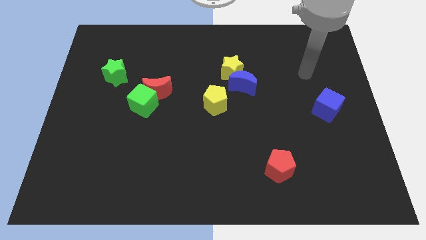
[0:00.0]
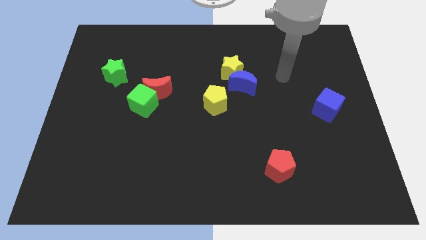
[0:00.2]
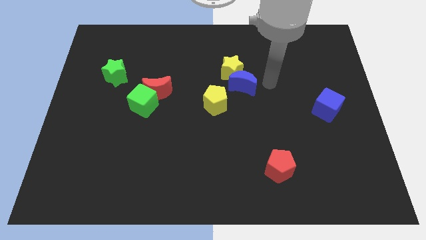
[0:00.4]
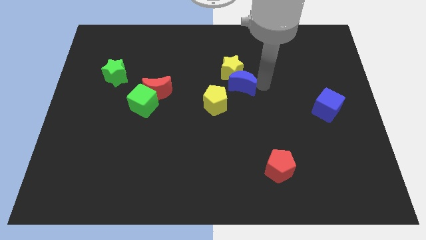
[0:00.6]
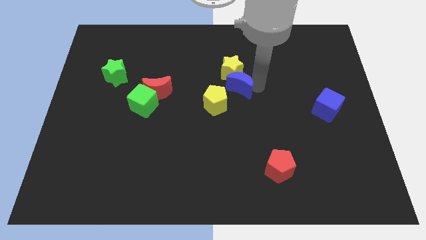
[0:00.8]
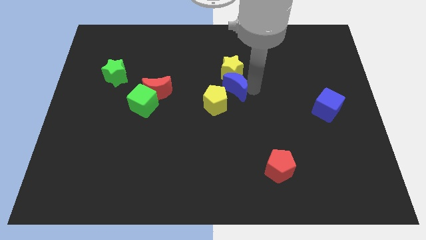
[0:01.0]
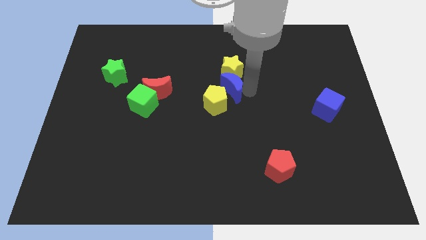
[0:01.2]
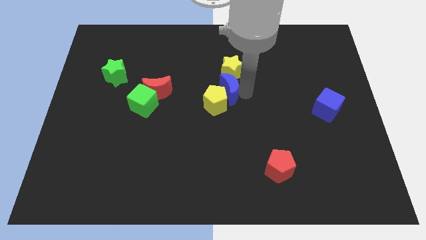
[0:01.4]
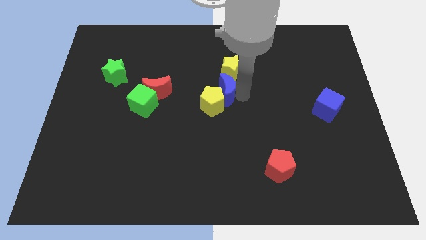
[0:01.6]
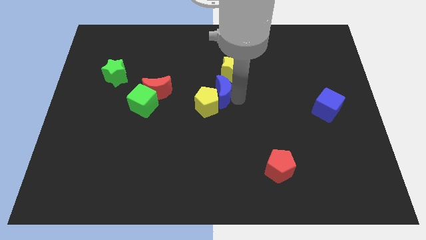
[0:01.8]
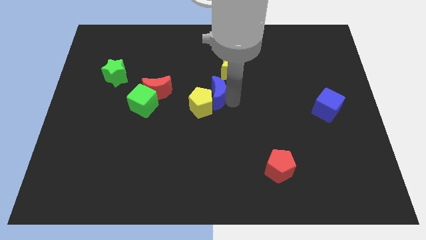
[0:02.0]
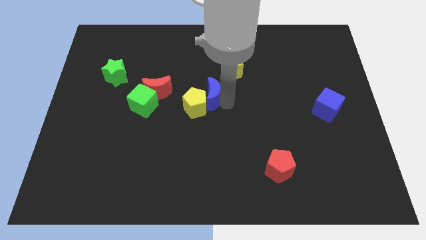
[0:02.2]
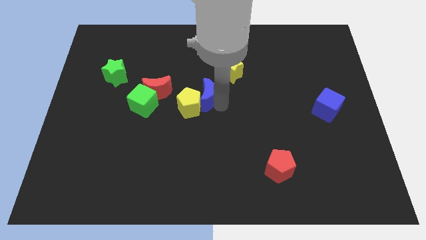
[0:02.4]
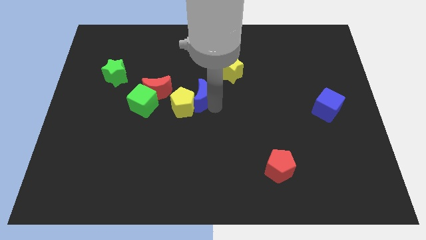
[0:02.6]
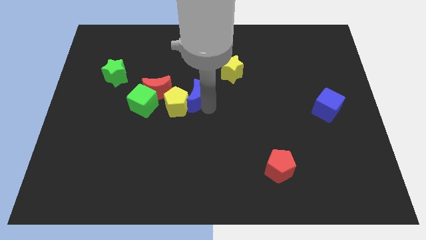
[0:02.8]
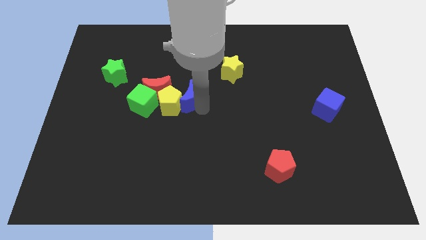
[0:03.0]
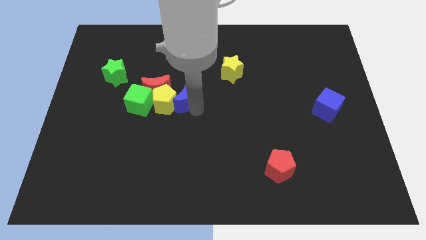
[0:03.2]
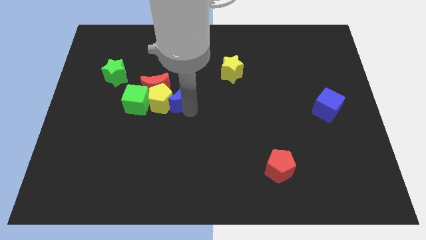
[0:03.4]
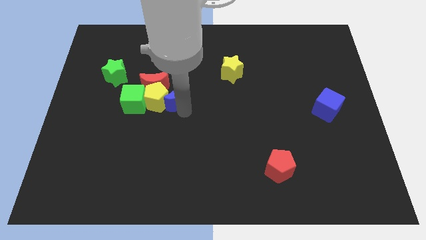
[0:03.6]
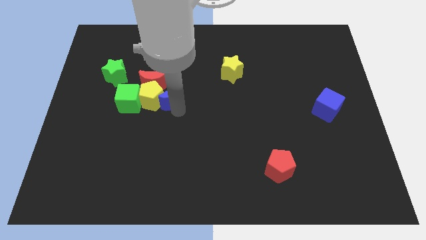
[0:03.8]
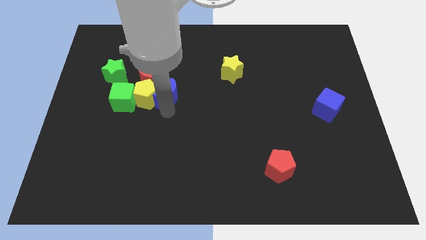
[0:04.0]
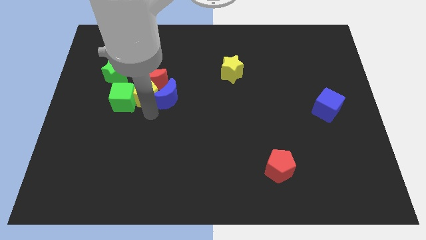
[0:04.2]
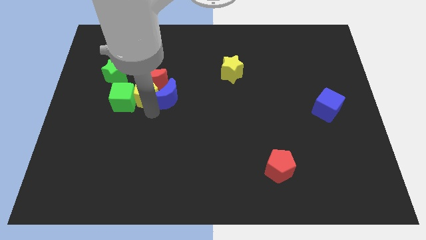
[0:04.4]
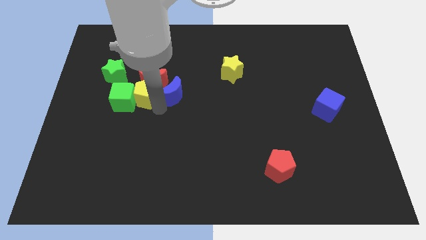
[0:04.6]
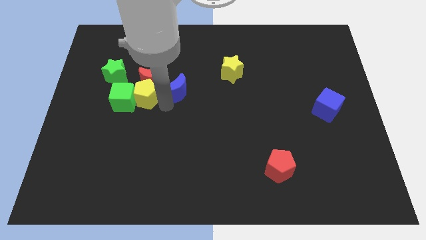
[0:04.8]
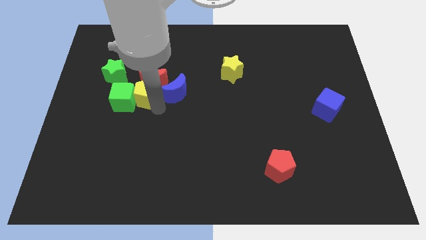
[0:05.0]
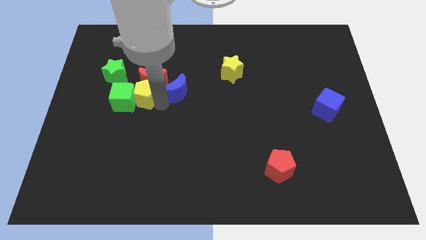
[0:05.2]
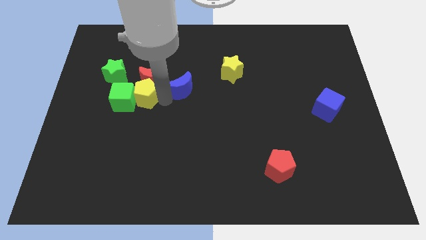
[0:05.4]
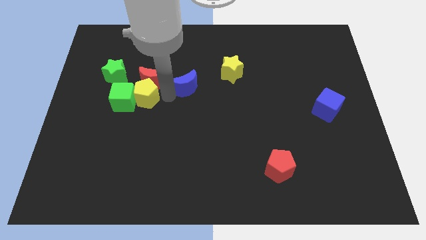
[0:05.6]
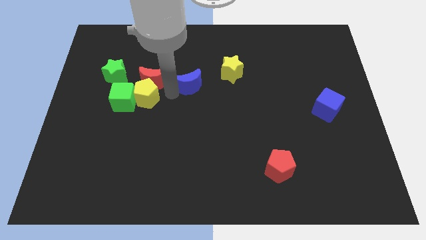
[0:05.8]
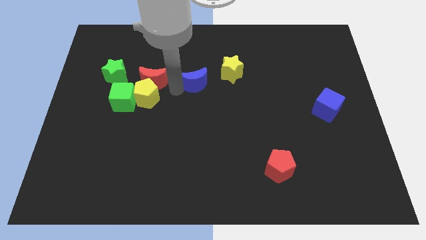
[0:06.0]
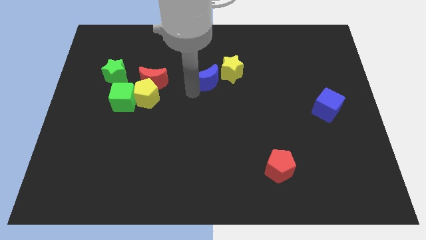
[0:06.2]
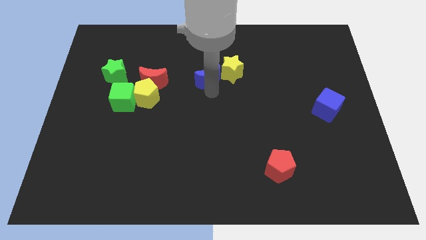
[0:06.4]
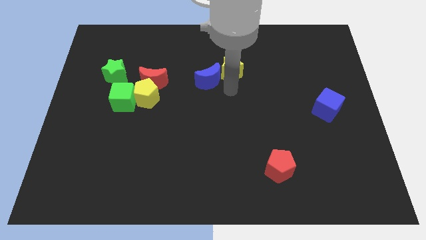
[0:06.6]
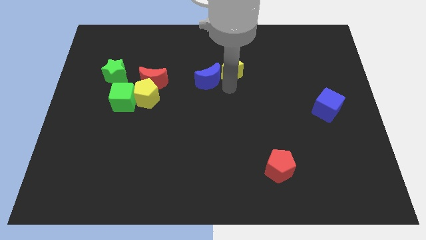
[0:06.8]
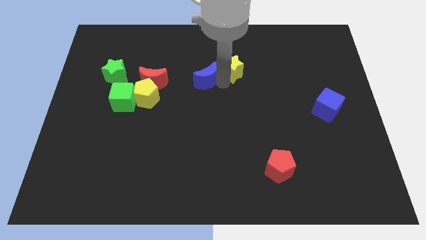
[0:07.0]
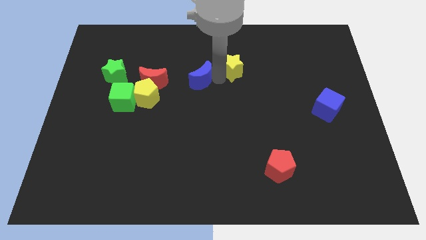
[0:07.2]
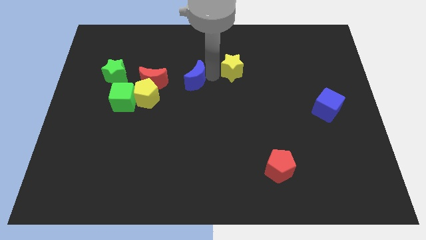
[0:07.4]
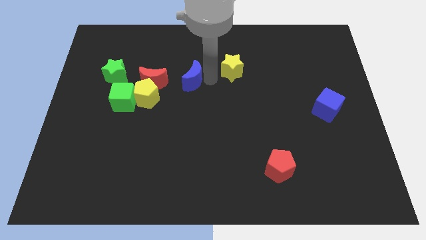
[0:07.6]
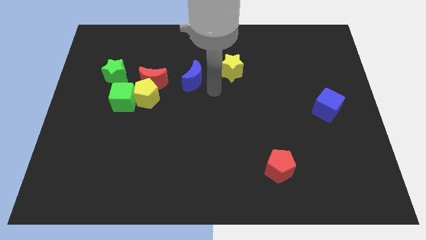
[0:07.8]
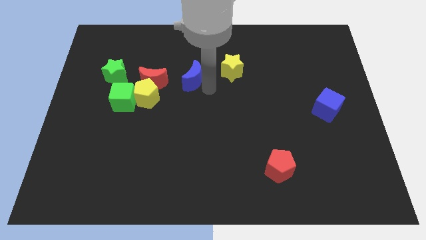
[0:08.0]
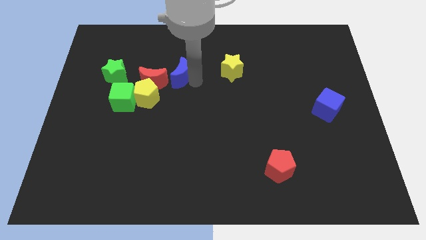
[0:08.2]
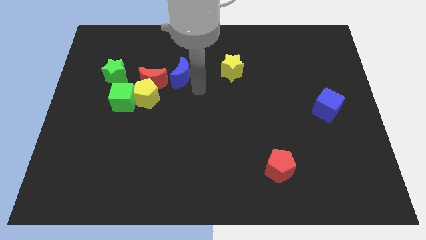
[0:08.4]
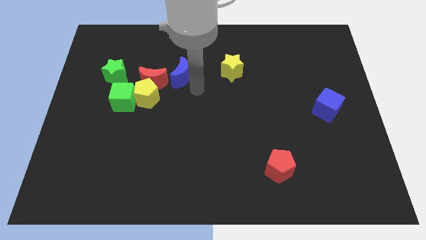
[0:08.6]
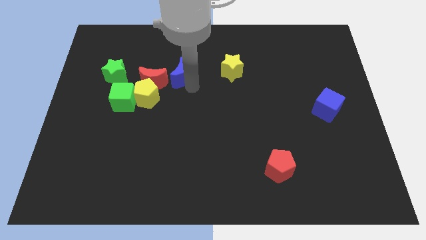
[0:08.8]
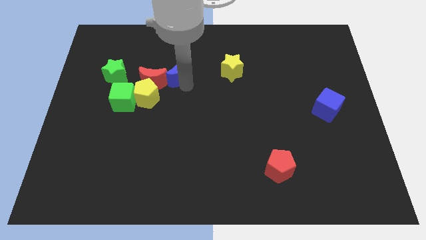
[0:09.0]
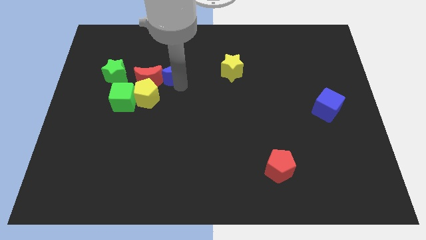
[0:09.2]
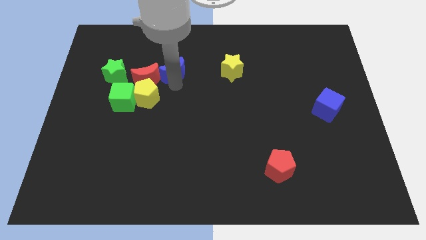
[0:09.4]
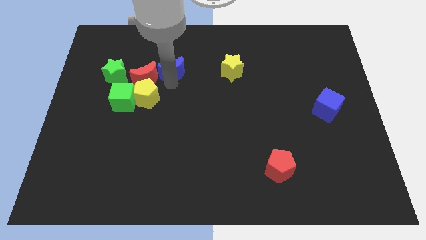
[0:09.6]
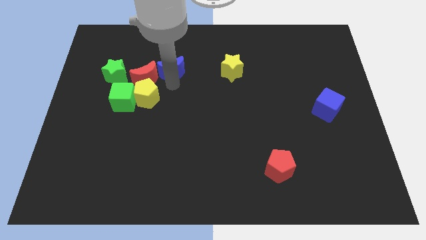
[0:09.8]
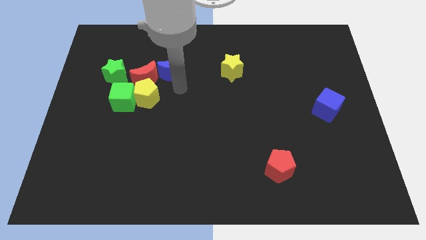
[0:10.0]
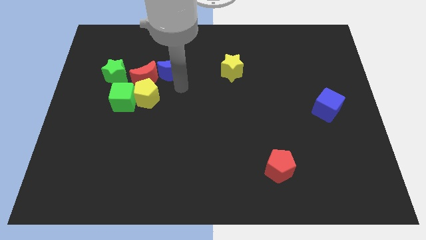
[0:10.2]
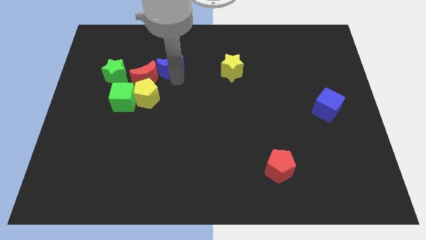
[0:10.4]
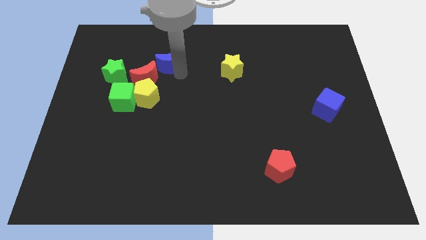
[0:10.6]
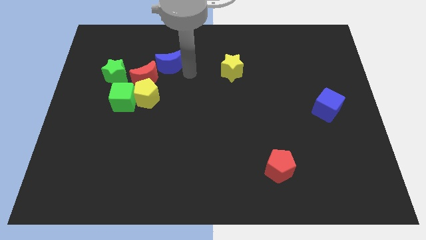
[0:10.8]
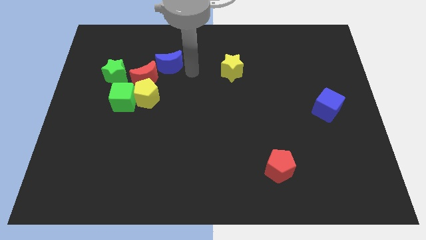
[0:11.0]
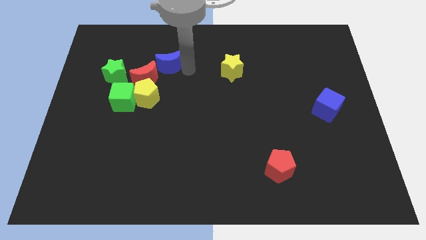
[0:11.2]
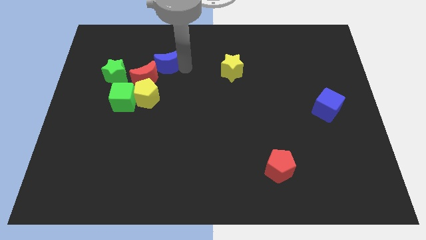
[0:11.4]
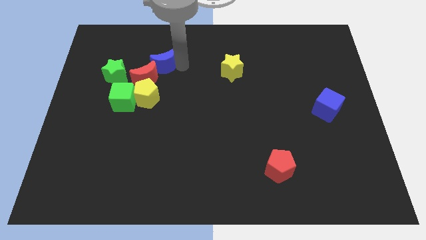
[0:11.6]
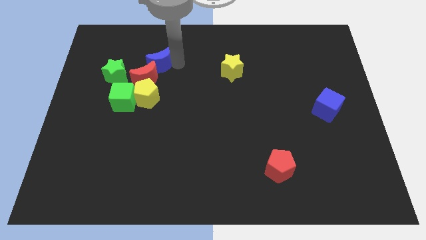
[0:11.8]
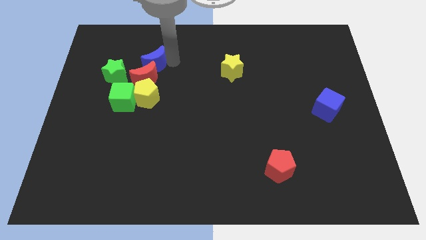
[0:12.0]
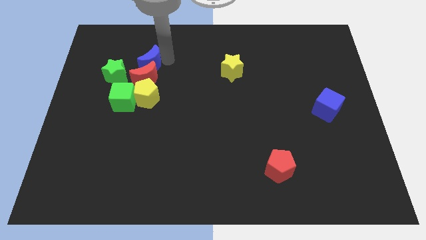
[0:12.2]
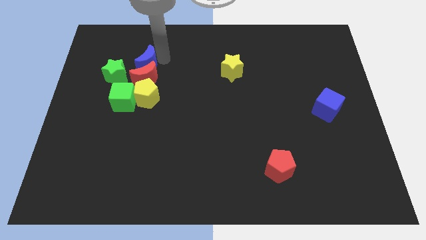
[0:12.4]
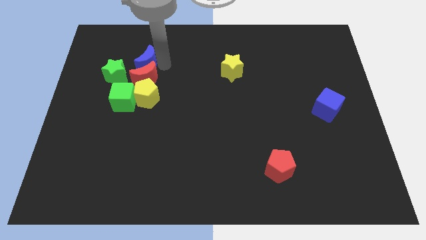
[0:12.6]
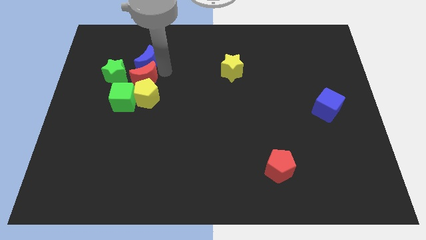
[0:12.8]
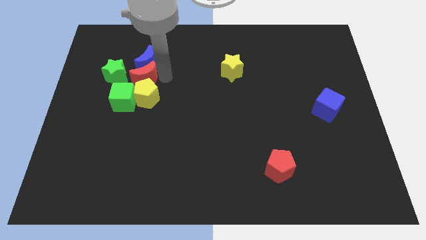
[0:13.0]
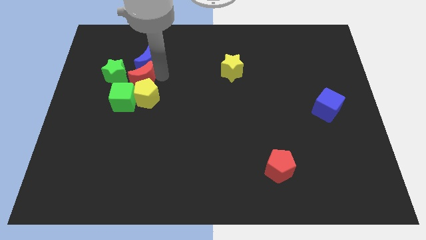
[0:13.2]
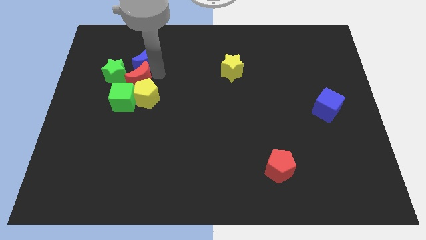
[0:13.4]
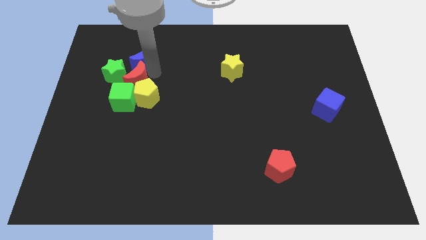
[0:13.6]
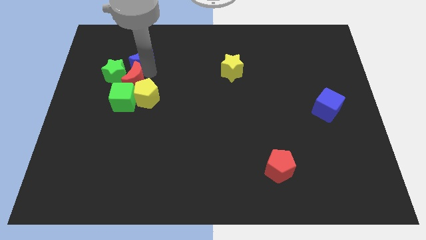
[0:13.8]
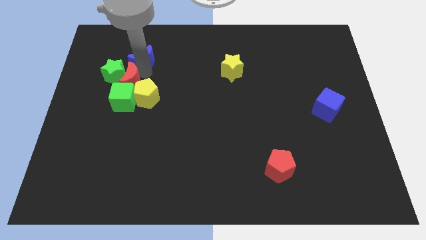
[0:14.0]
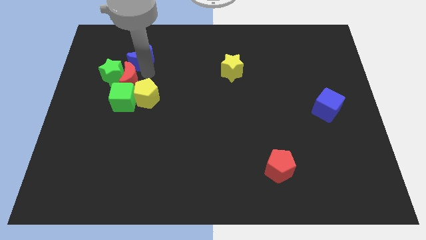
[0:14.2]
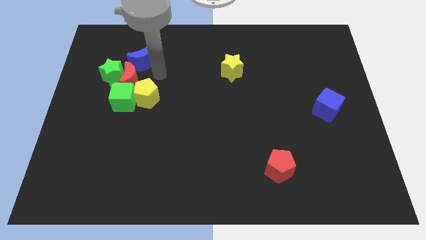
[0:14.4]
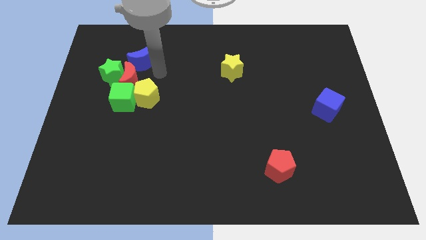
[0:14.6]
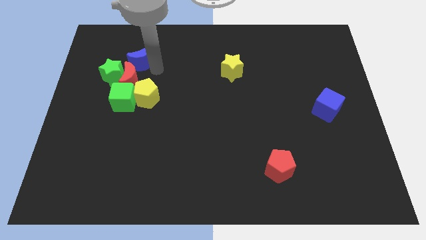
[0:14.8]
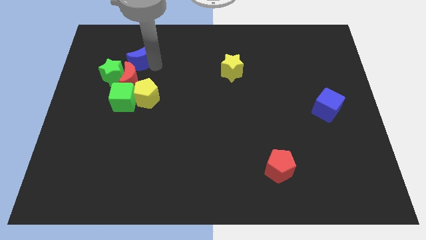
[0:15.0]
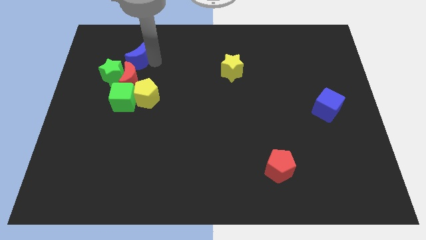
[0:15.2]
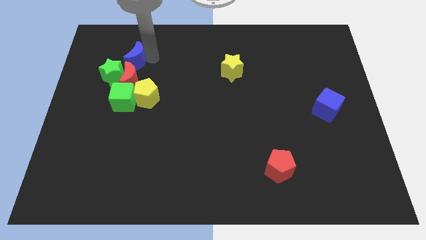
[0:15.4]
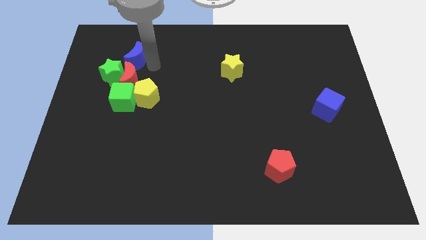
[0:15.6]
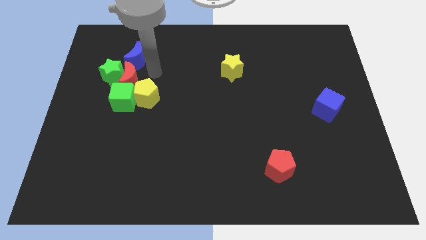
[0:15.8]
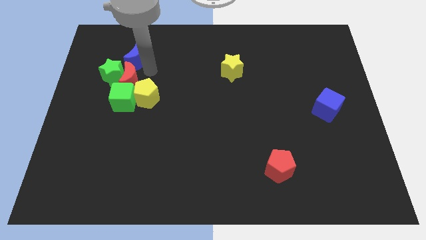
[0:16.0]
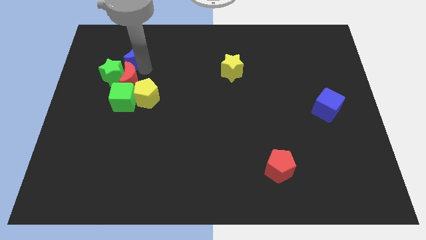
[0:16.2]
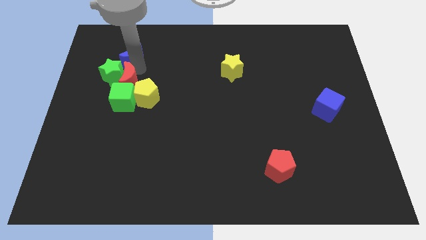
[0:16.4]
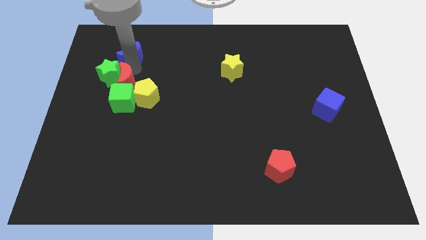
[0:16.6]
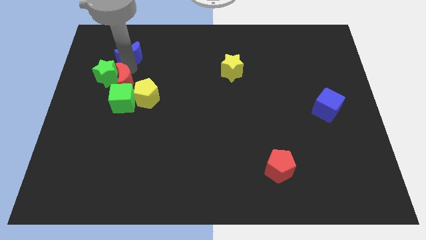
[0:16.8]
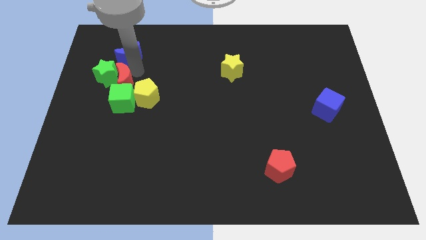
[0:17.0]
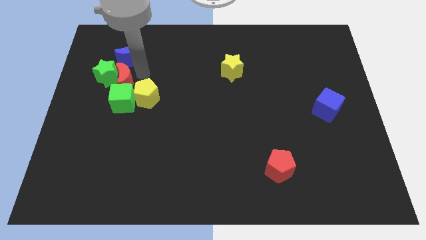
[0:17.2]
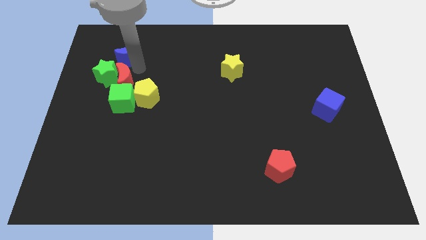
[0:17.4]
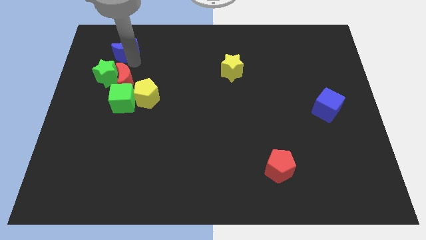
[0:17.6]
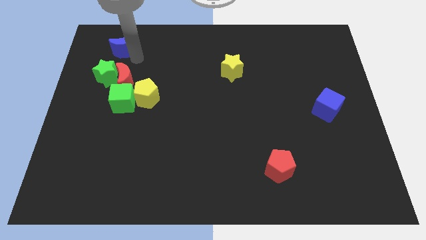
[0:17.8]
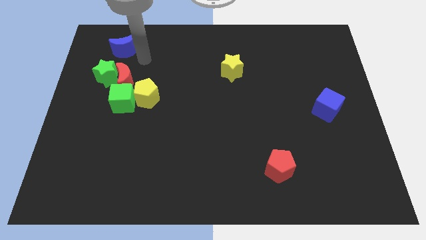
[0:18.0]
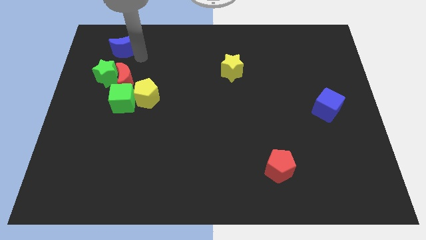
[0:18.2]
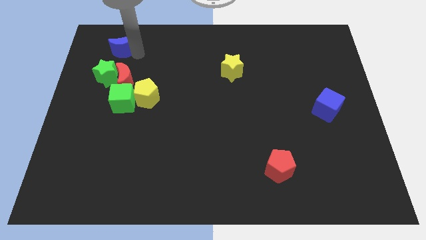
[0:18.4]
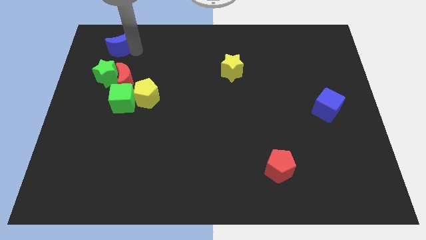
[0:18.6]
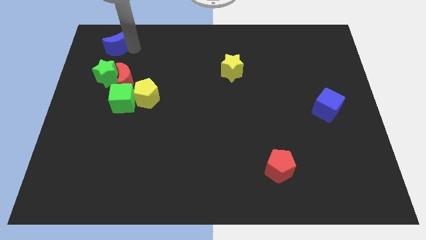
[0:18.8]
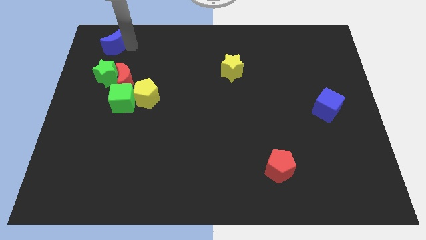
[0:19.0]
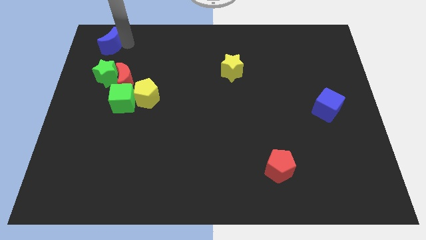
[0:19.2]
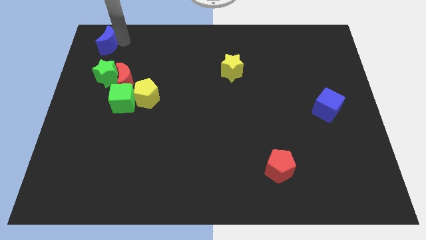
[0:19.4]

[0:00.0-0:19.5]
push the blue moon to the top left
